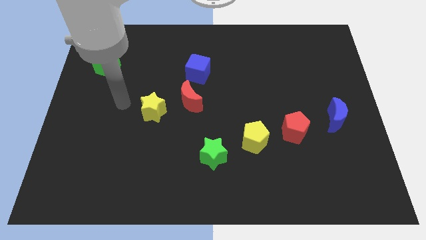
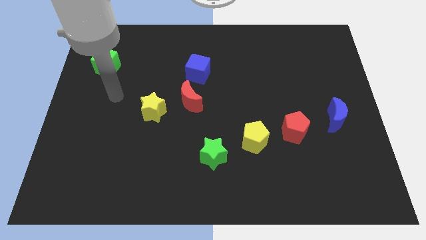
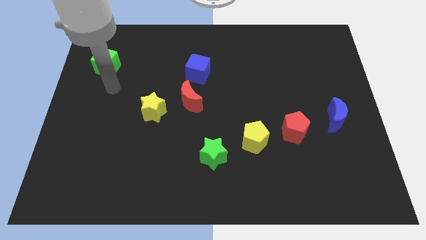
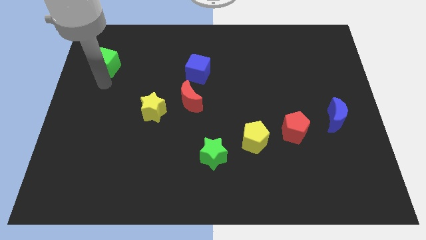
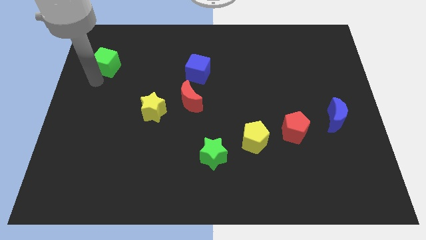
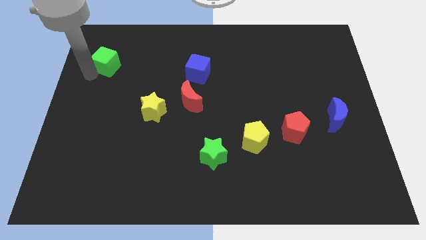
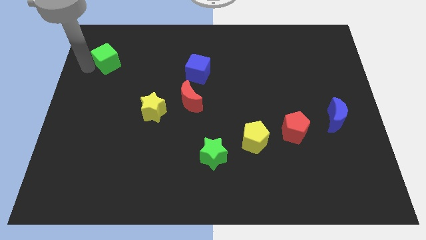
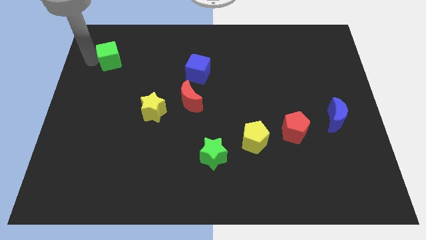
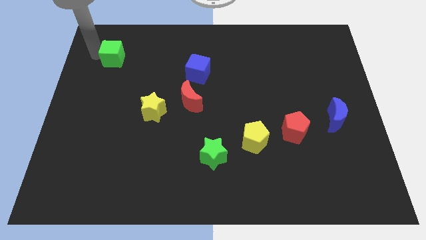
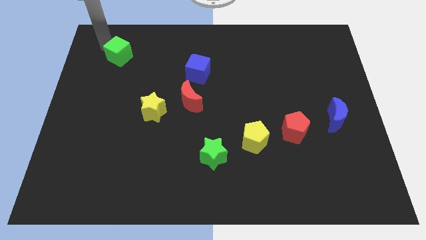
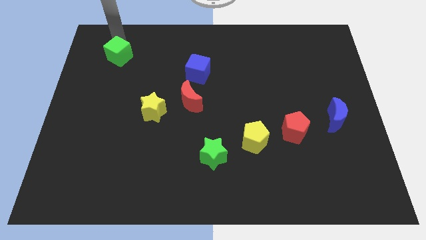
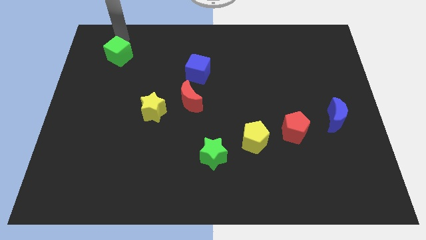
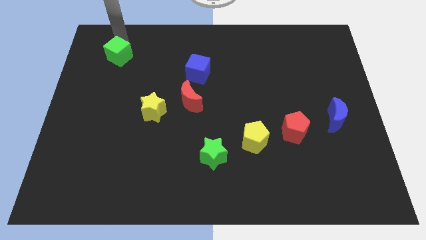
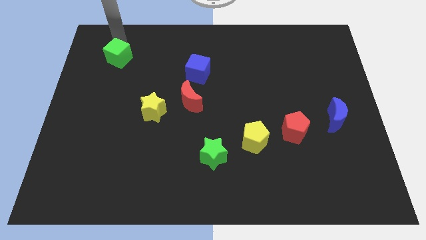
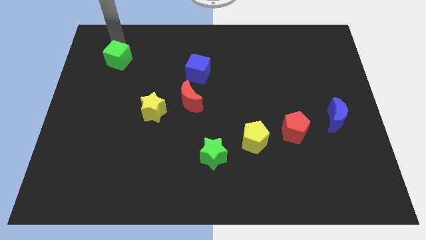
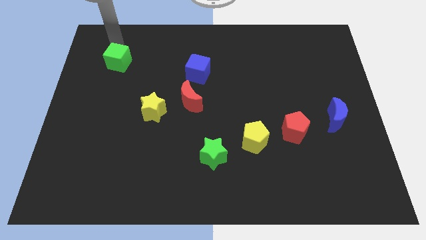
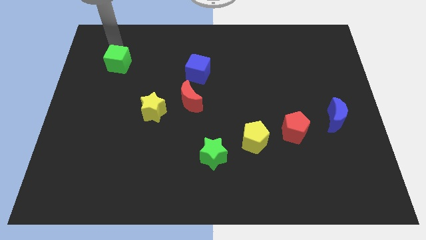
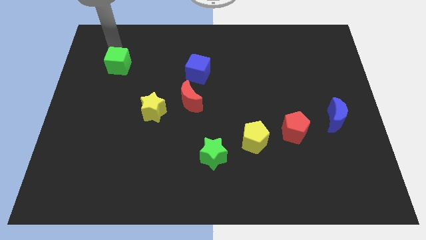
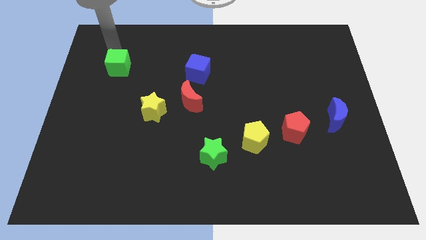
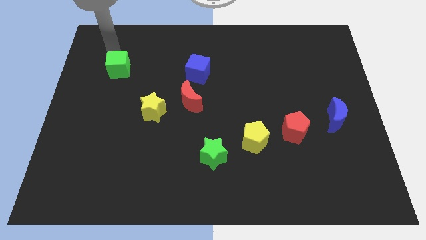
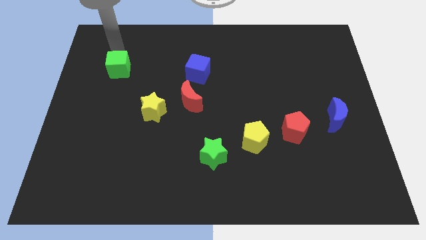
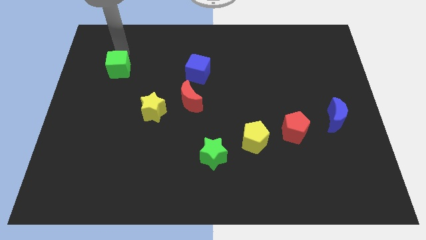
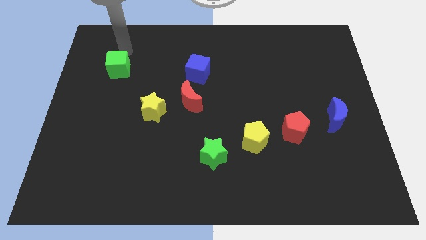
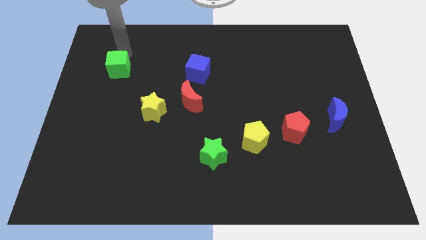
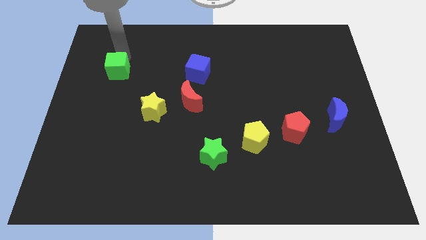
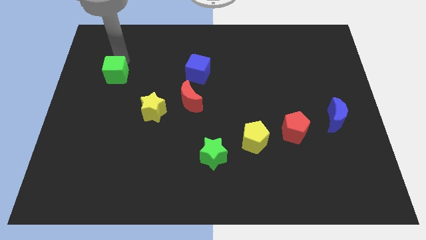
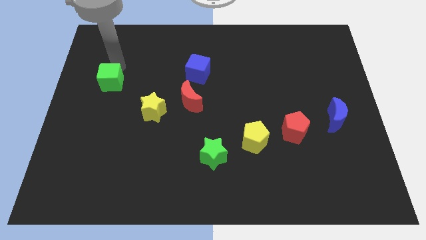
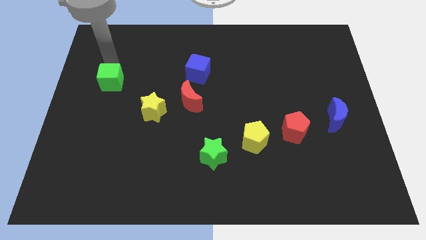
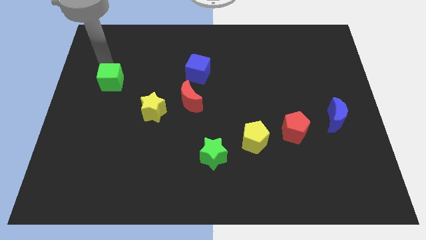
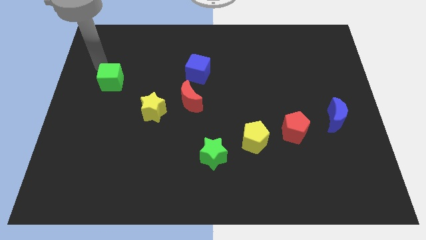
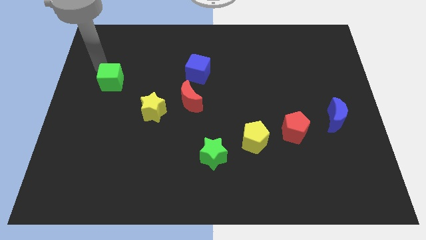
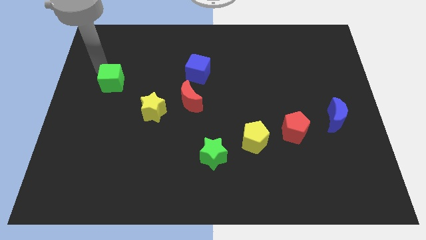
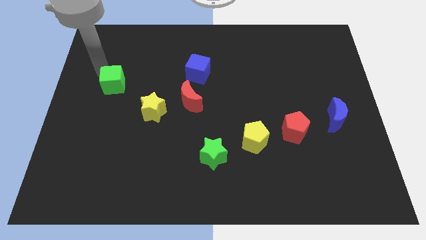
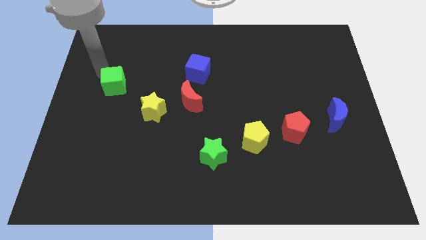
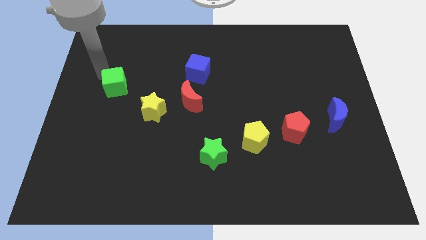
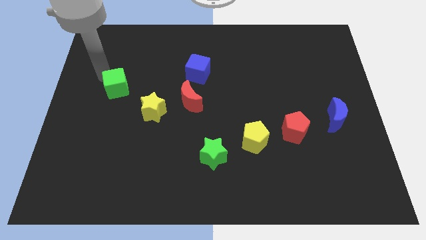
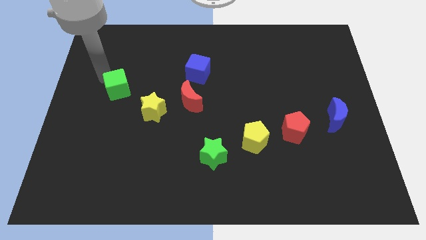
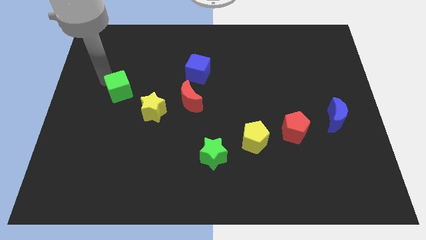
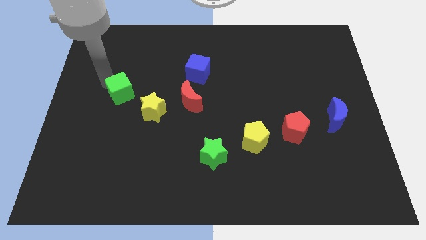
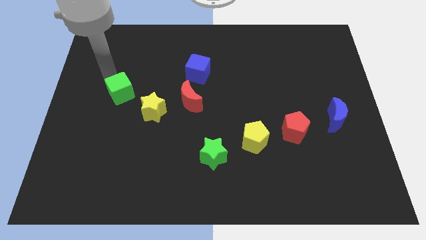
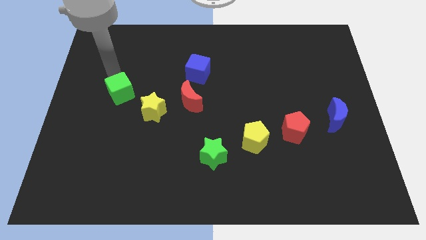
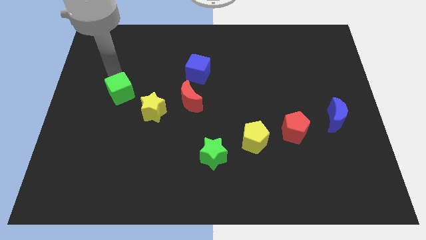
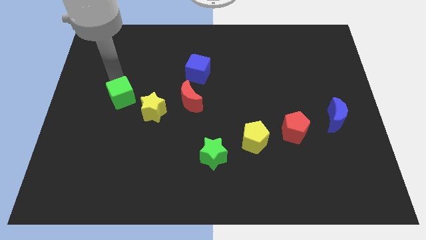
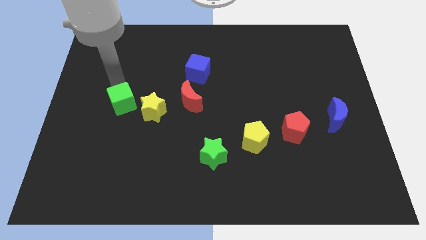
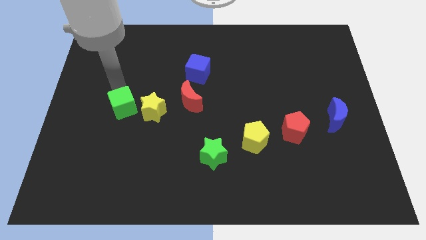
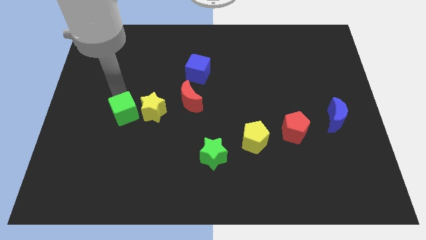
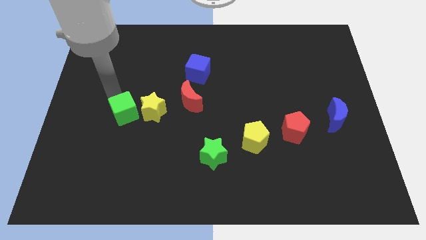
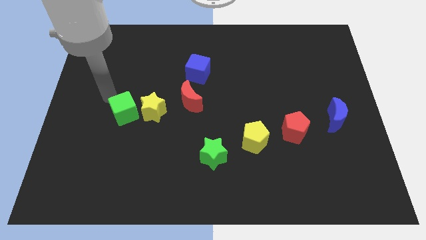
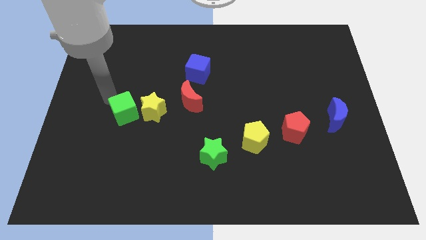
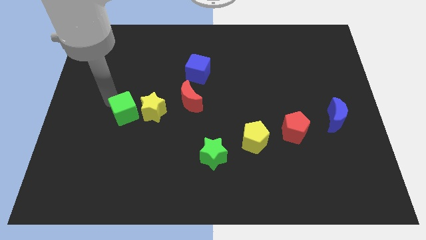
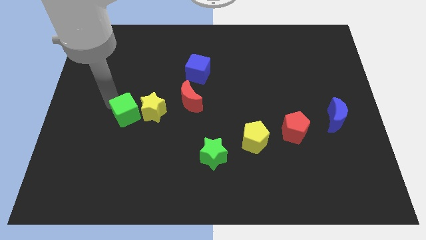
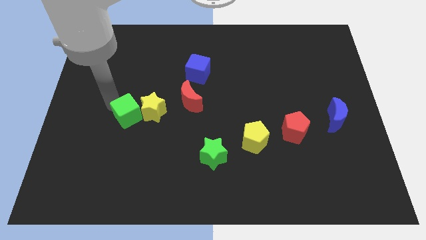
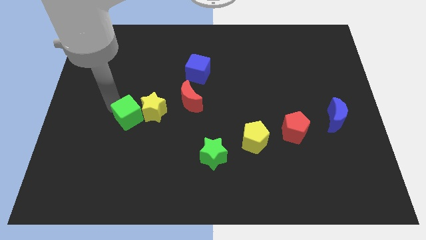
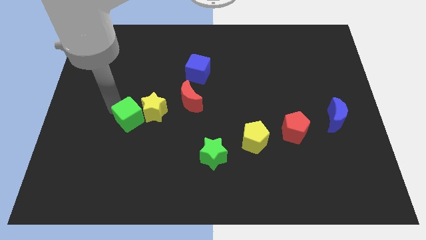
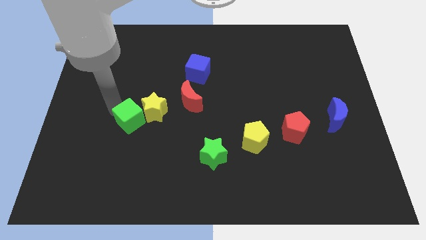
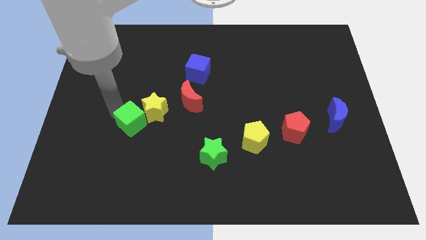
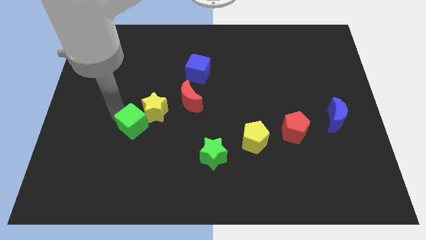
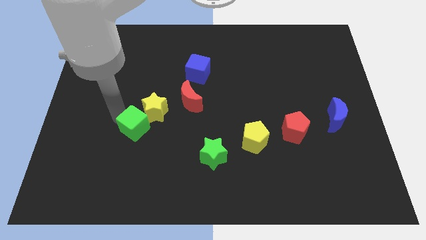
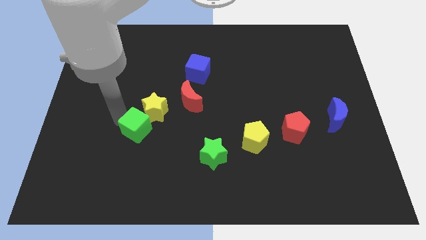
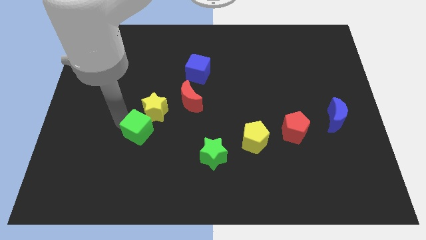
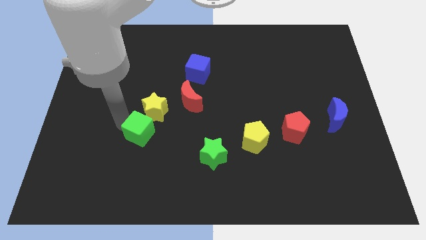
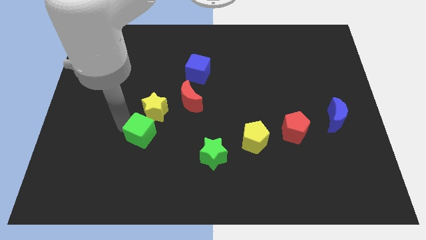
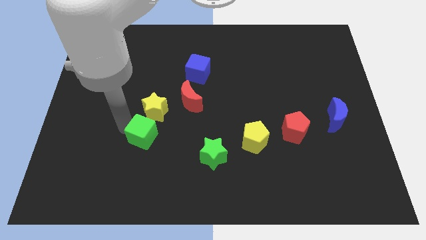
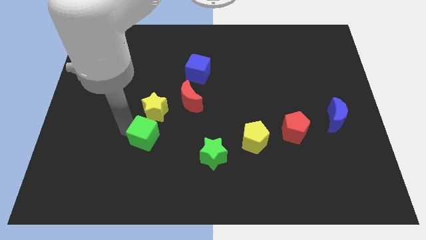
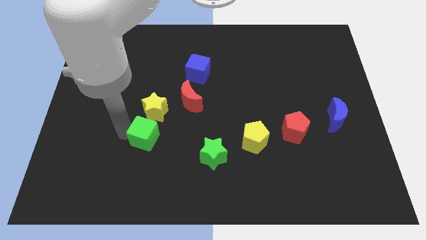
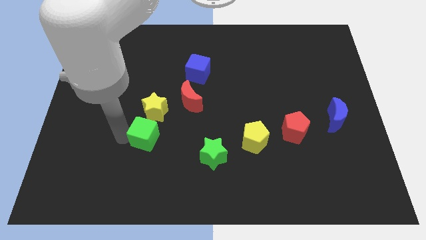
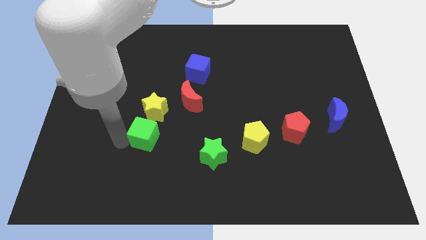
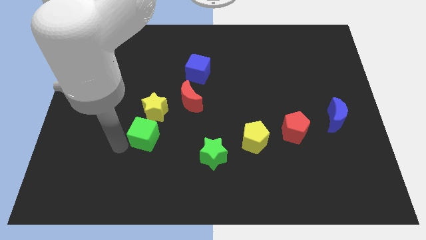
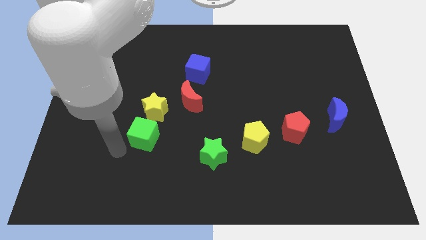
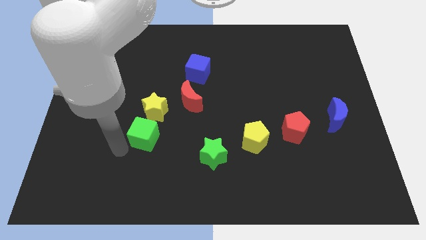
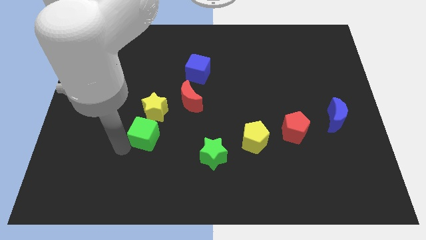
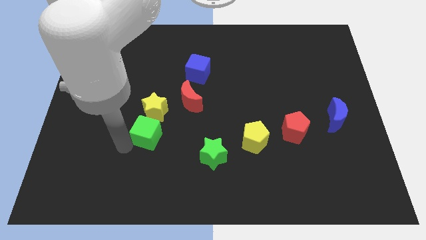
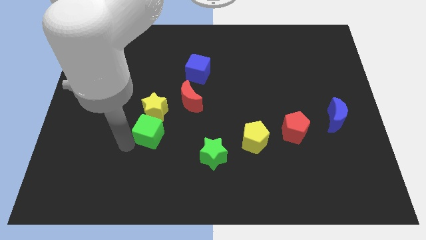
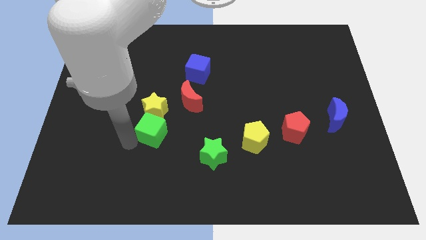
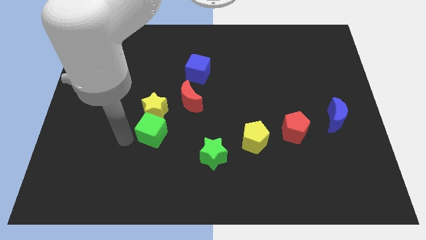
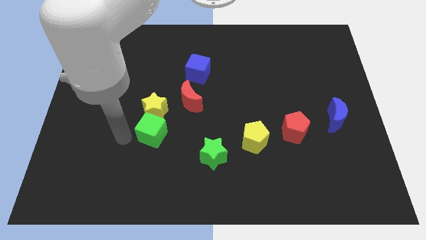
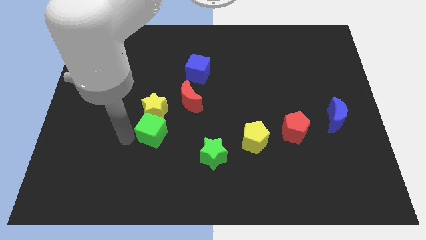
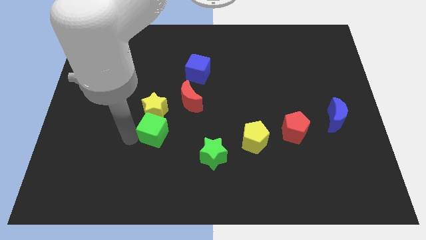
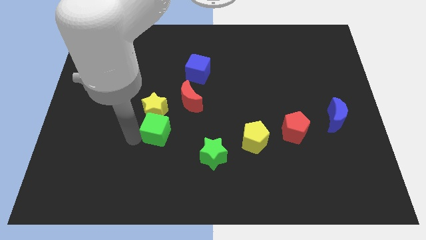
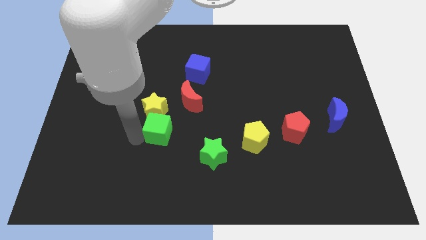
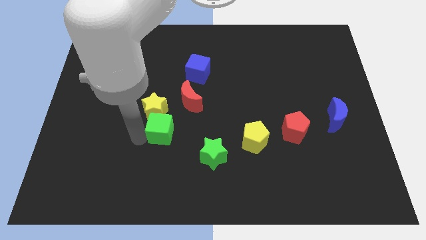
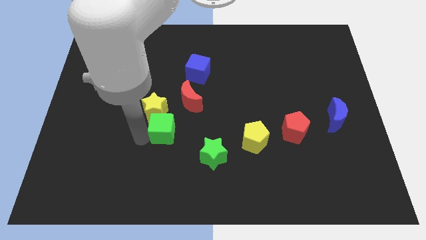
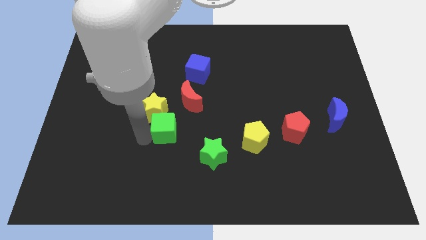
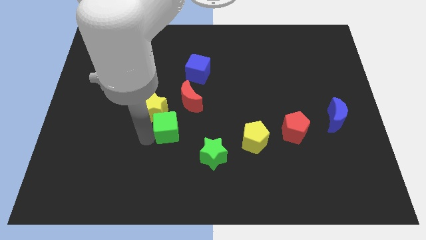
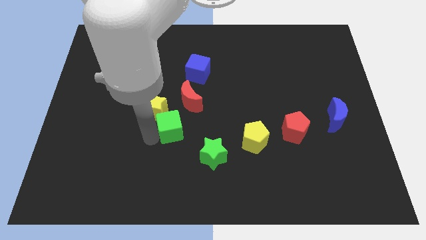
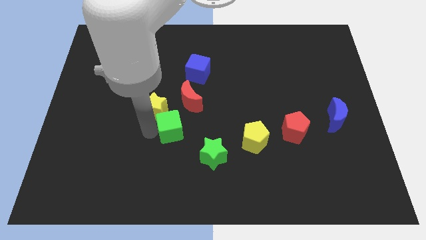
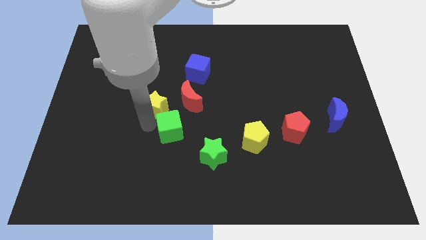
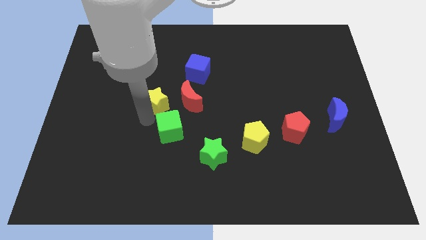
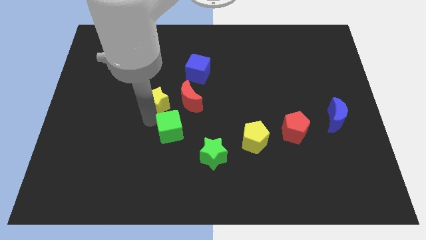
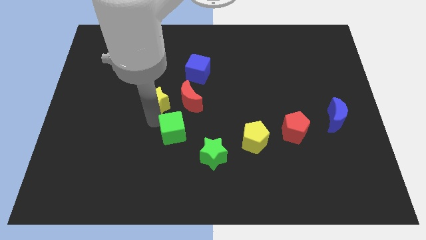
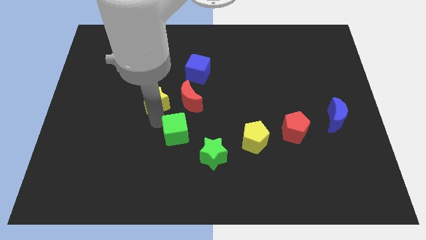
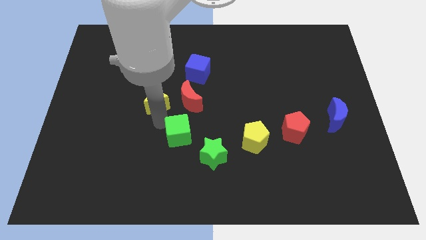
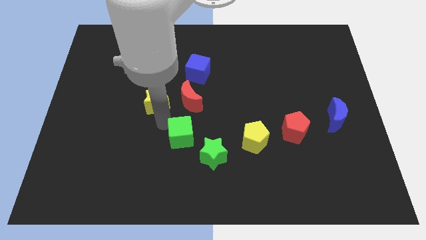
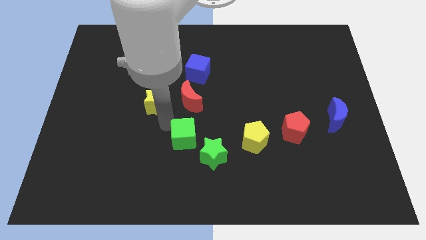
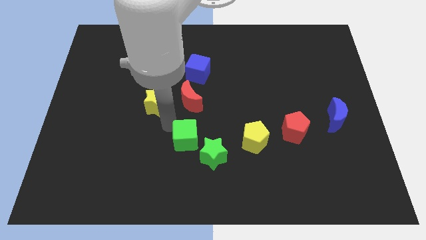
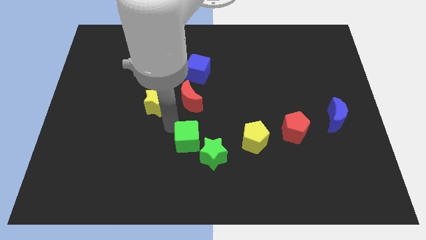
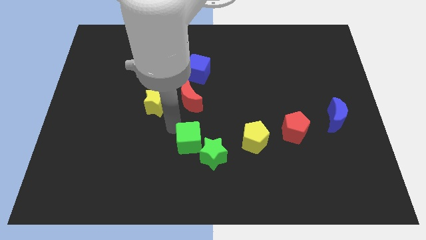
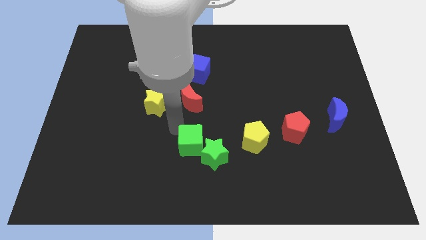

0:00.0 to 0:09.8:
push the green cube close to the green star
